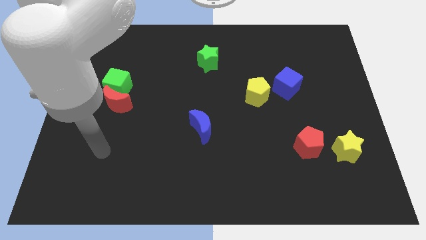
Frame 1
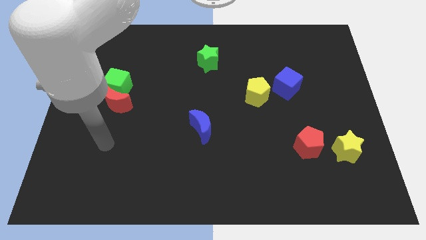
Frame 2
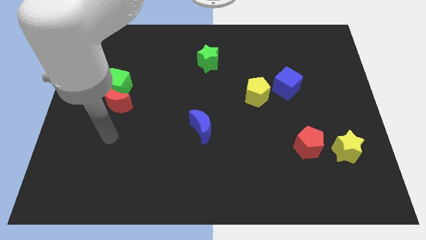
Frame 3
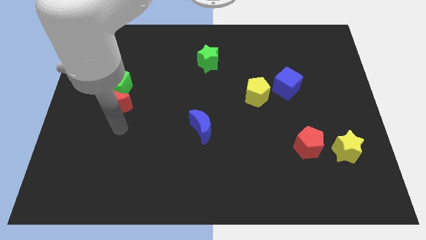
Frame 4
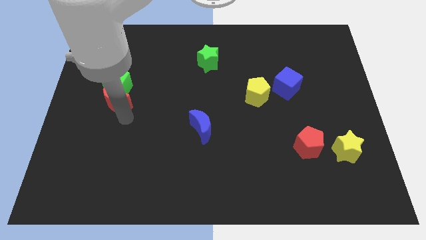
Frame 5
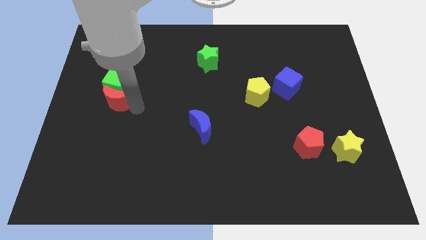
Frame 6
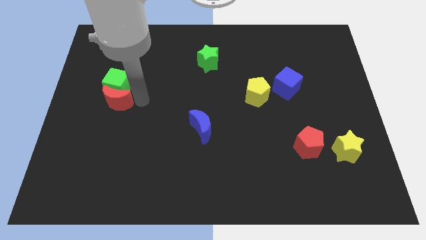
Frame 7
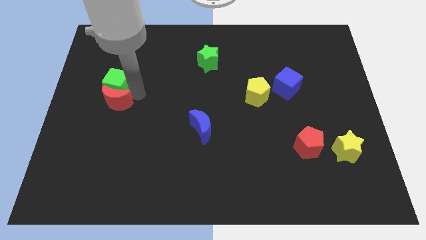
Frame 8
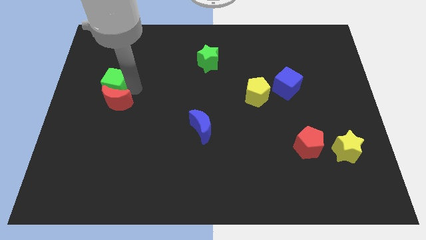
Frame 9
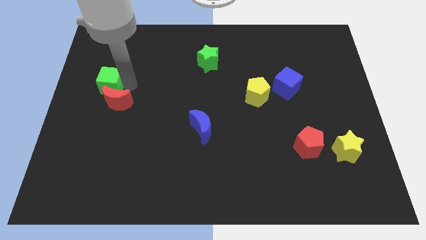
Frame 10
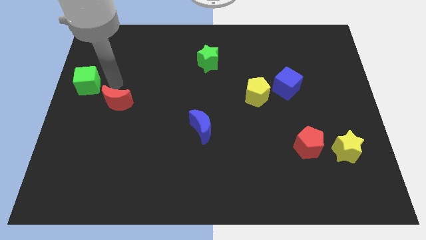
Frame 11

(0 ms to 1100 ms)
separate the red moon from the green cube

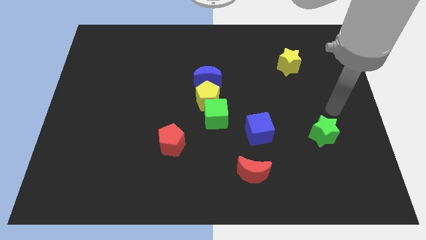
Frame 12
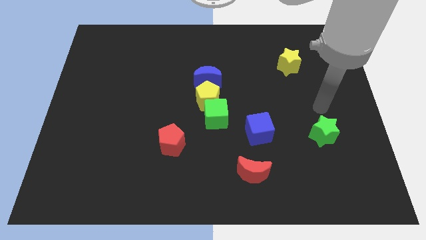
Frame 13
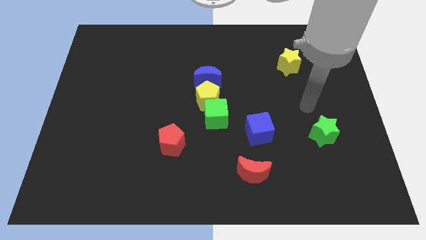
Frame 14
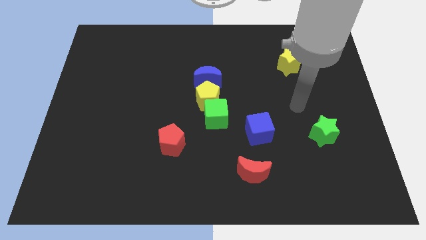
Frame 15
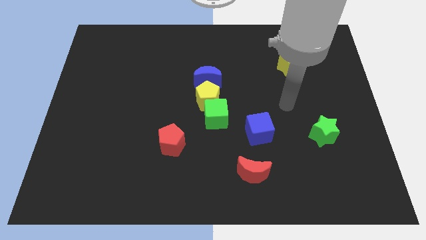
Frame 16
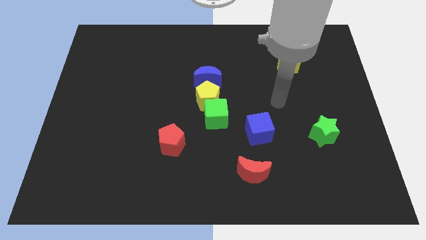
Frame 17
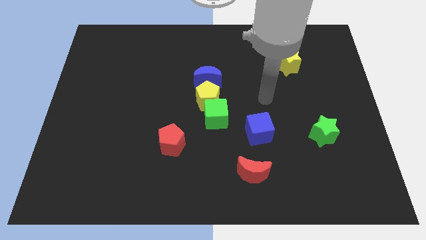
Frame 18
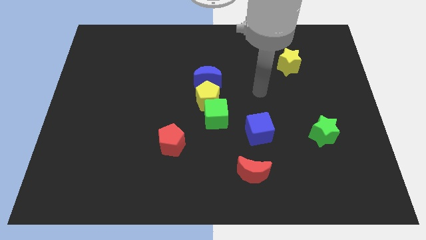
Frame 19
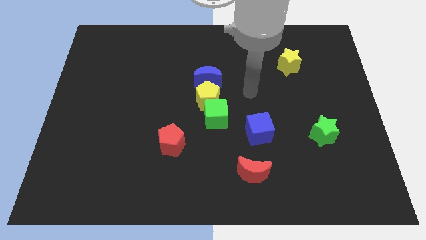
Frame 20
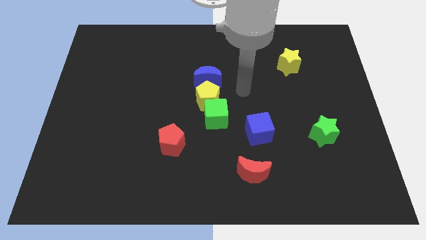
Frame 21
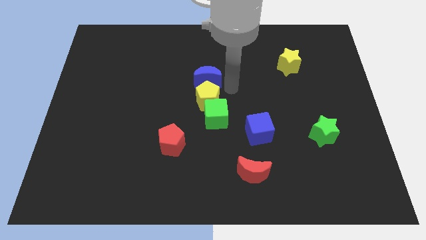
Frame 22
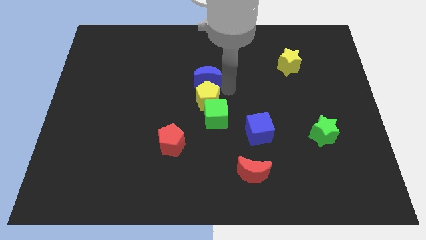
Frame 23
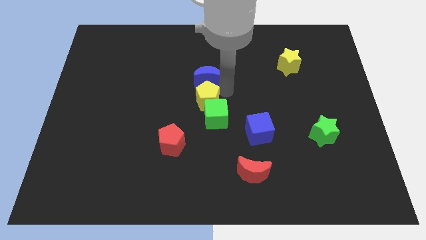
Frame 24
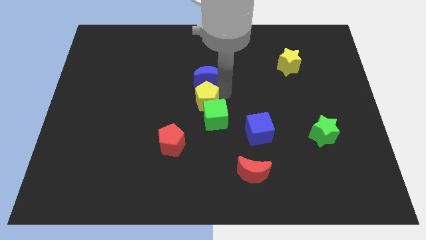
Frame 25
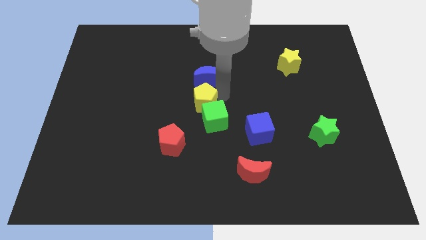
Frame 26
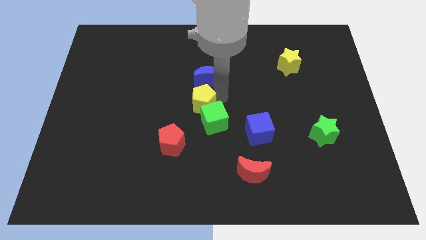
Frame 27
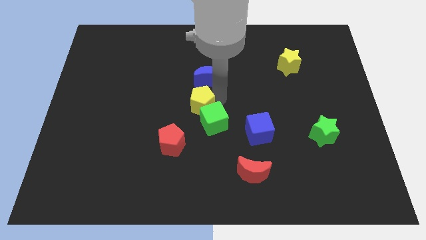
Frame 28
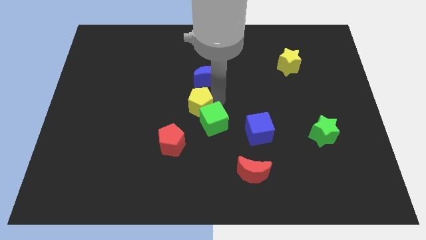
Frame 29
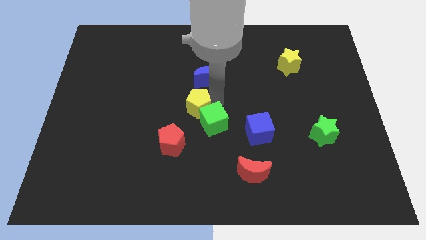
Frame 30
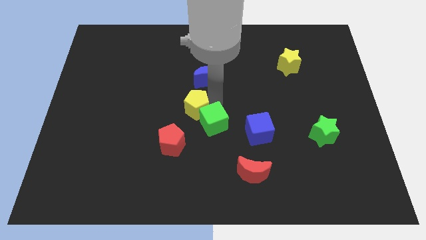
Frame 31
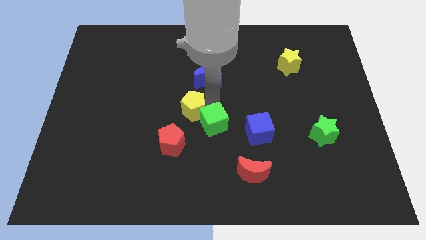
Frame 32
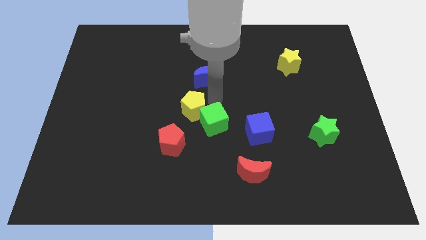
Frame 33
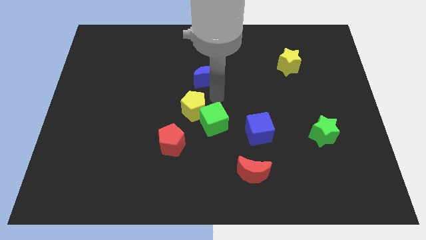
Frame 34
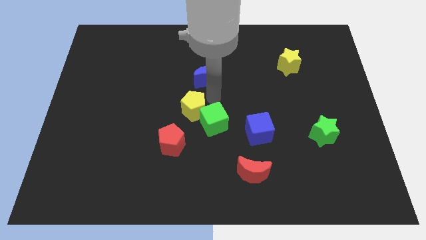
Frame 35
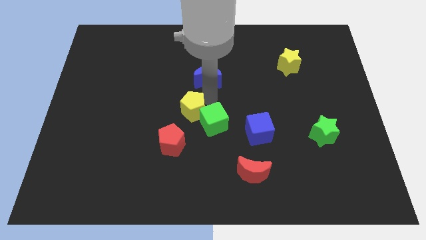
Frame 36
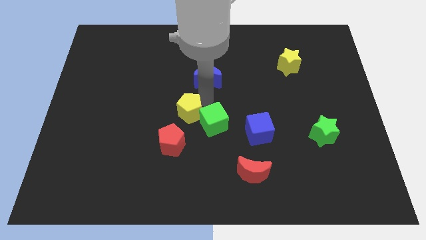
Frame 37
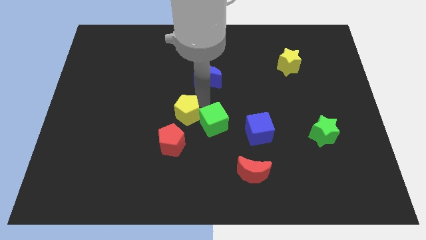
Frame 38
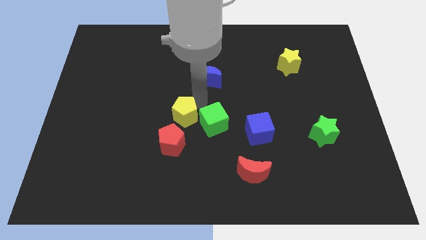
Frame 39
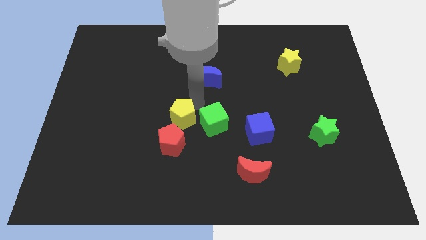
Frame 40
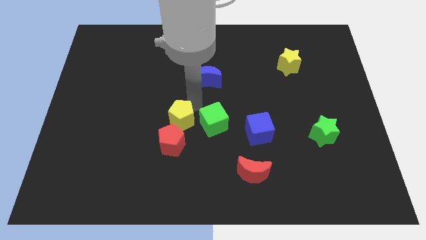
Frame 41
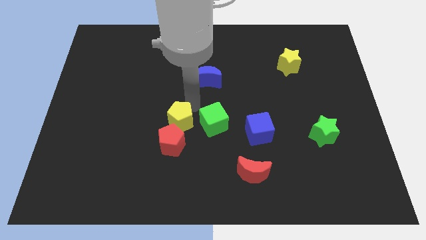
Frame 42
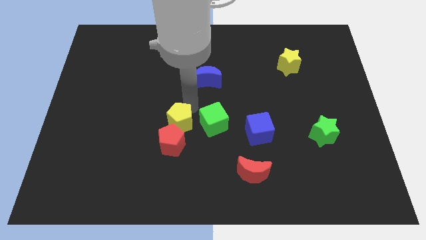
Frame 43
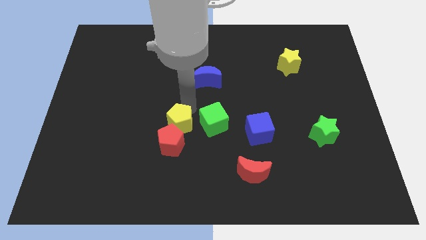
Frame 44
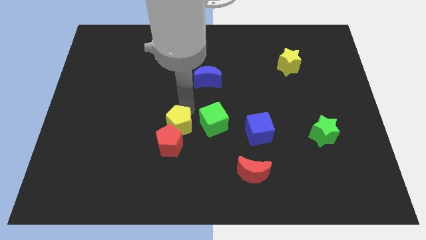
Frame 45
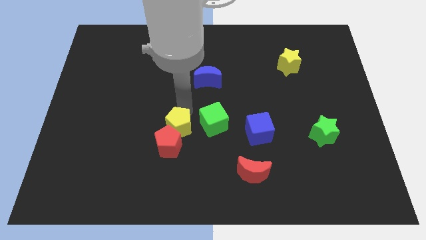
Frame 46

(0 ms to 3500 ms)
pull the yellow pentagon apart from the green cube and blue moon

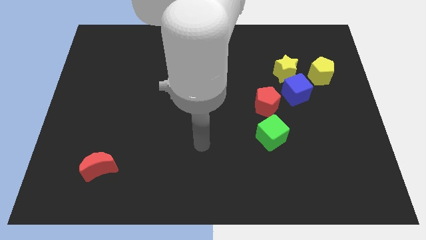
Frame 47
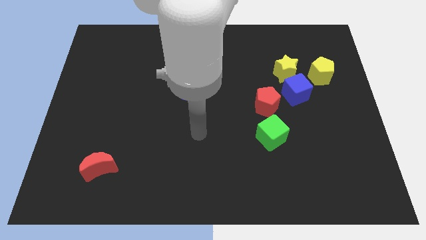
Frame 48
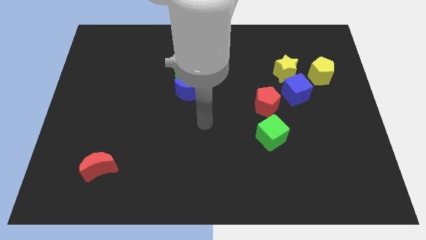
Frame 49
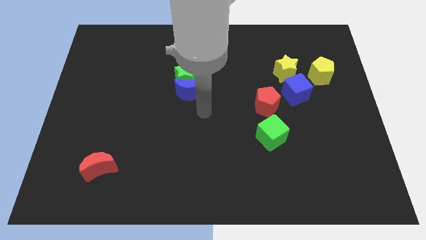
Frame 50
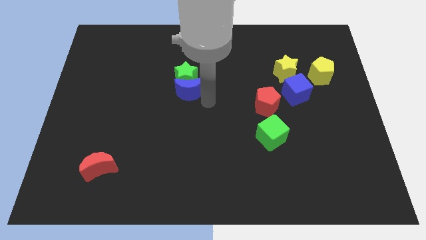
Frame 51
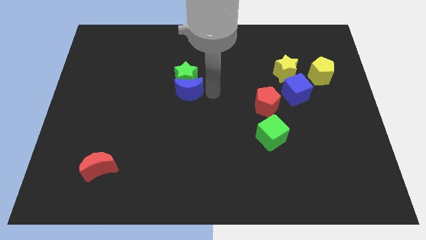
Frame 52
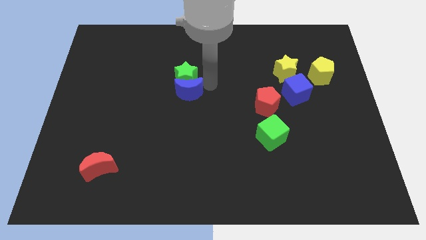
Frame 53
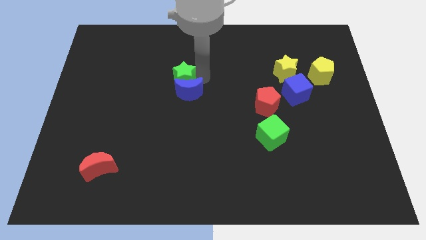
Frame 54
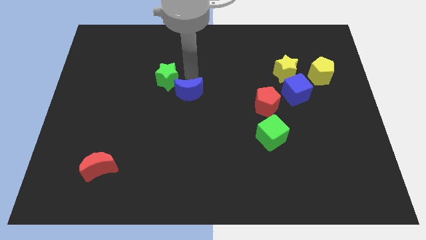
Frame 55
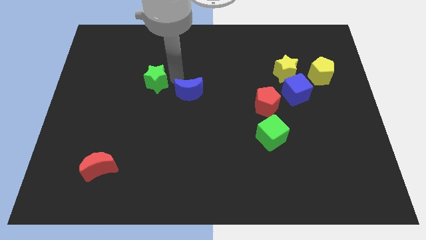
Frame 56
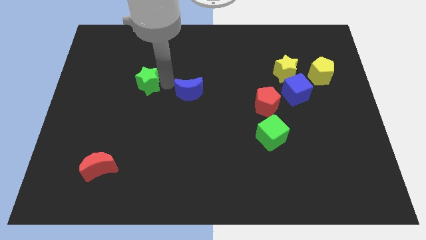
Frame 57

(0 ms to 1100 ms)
separate the blue moon from the green star

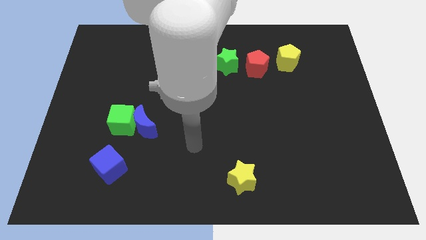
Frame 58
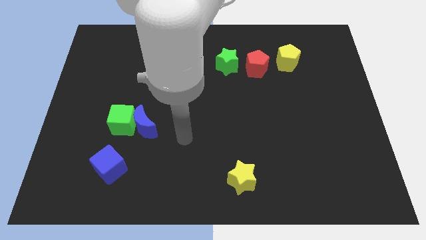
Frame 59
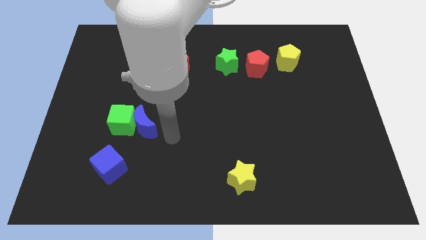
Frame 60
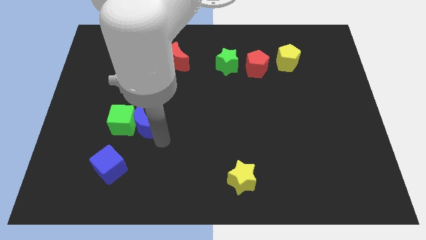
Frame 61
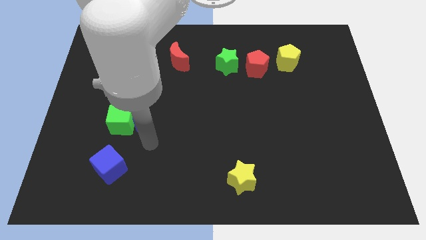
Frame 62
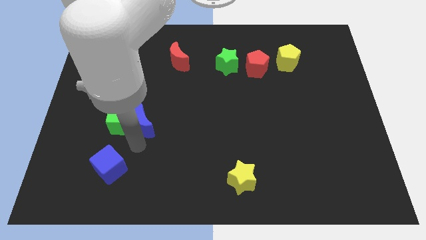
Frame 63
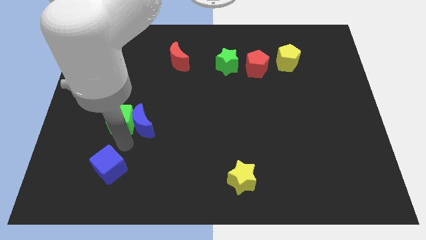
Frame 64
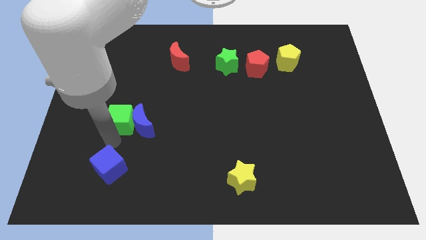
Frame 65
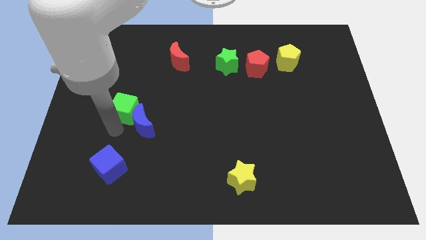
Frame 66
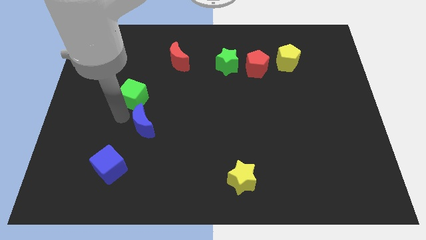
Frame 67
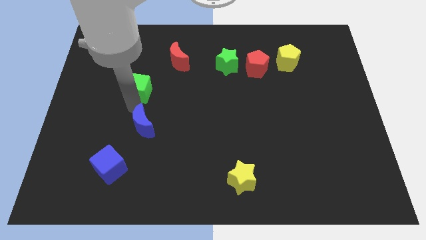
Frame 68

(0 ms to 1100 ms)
separate the blue moon from the green cube

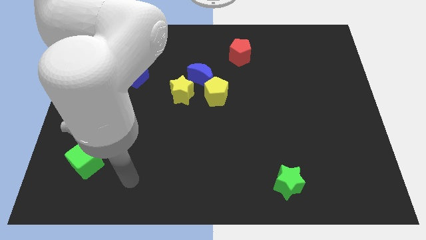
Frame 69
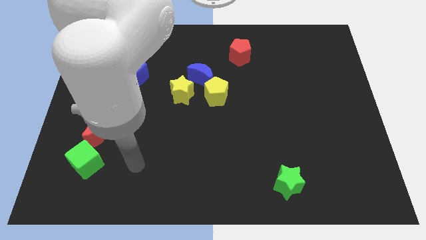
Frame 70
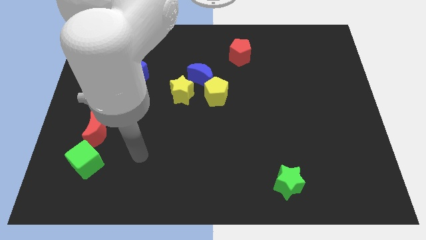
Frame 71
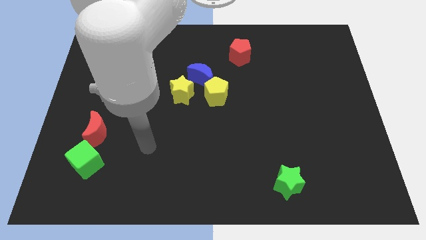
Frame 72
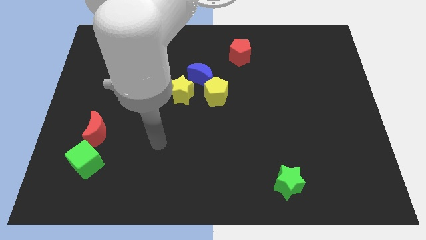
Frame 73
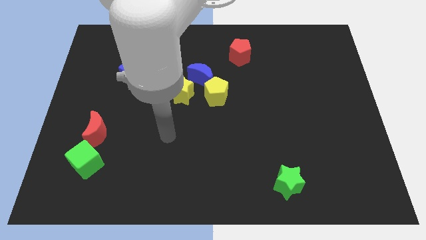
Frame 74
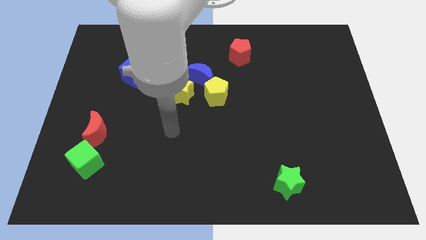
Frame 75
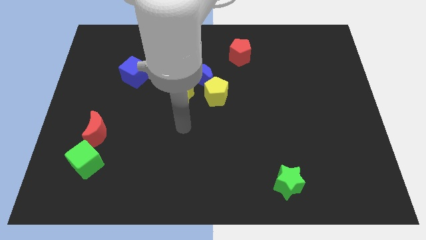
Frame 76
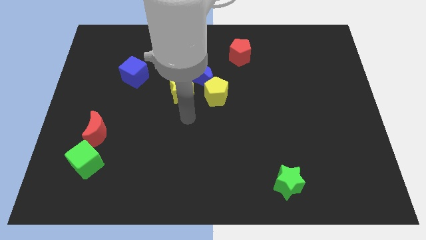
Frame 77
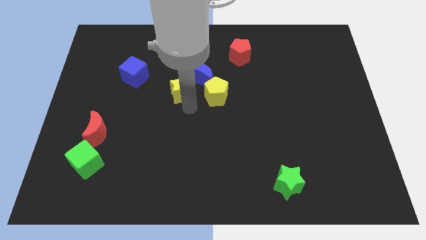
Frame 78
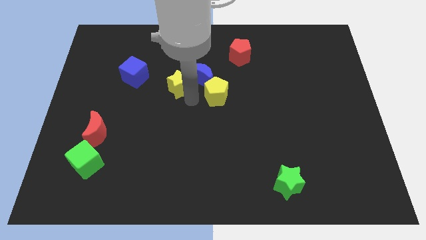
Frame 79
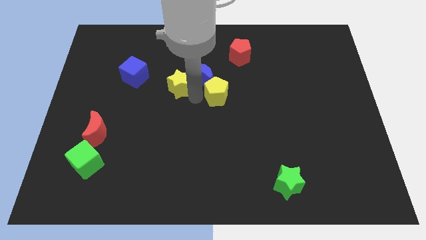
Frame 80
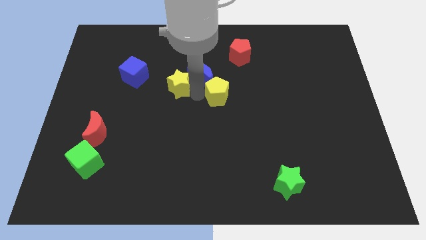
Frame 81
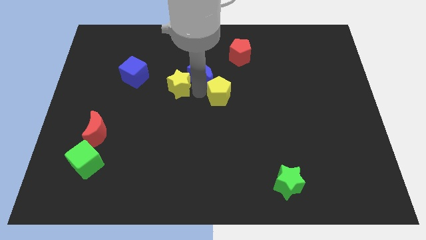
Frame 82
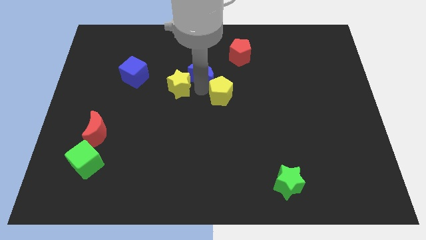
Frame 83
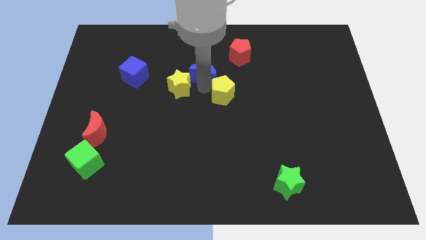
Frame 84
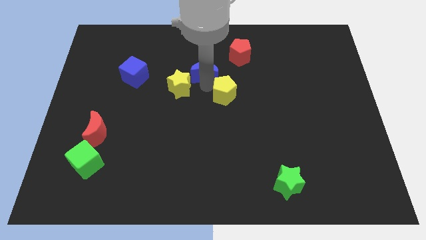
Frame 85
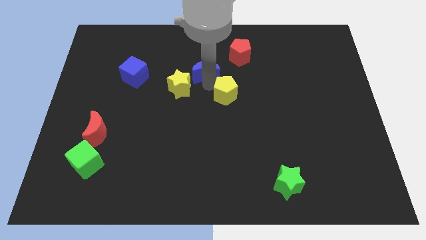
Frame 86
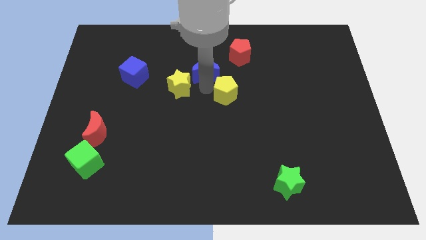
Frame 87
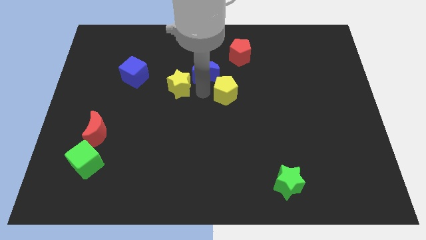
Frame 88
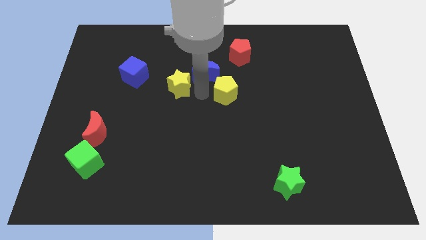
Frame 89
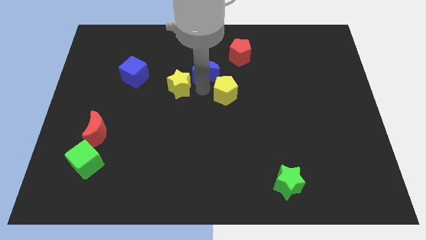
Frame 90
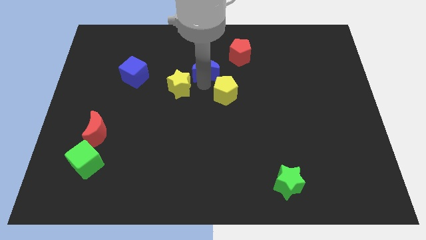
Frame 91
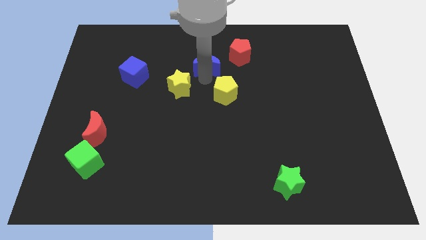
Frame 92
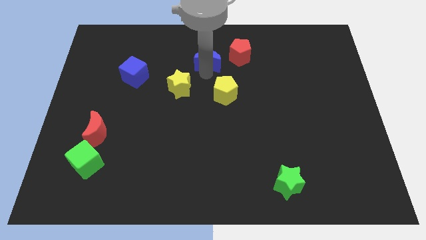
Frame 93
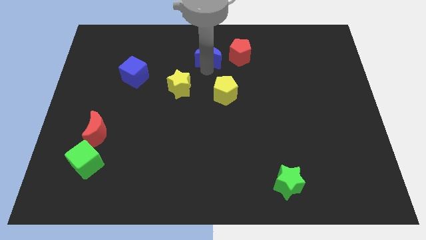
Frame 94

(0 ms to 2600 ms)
separate the blue moon from the yellow pentagon and yellow star

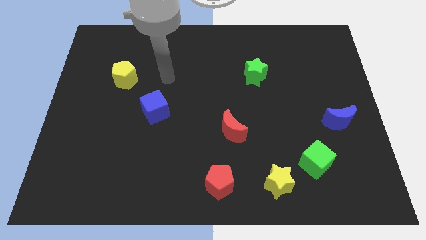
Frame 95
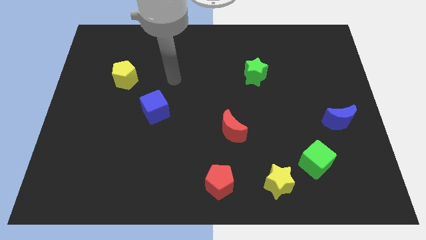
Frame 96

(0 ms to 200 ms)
separate the green cube from the yellow star
